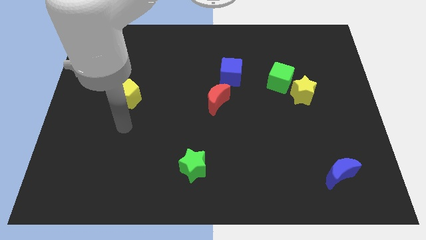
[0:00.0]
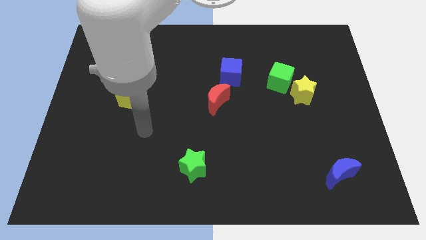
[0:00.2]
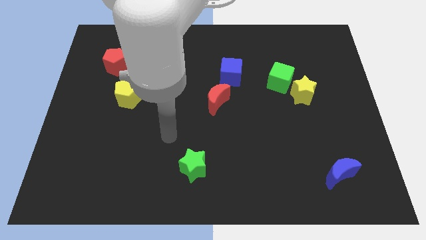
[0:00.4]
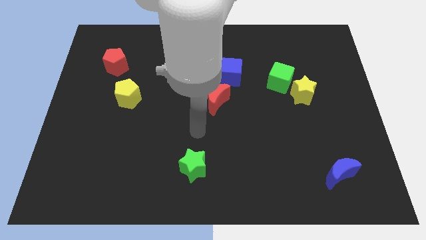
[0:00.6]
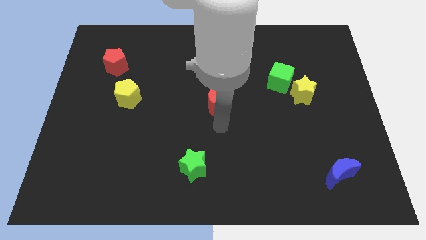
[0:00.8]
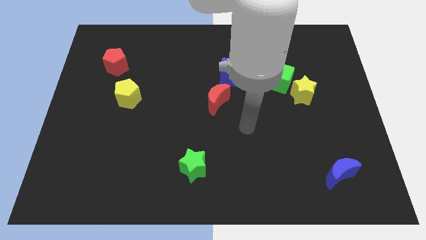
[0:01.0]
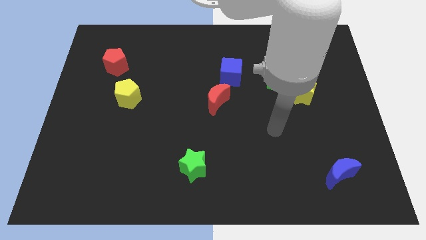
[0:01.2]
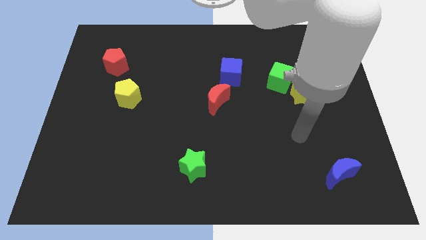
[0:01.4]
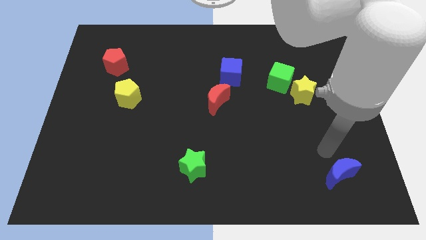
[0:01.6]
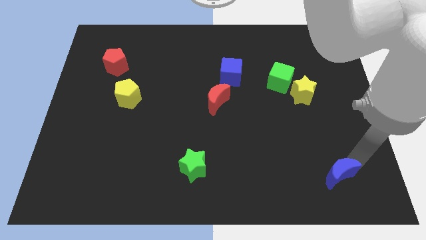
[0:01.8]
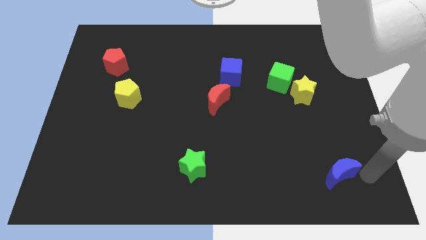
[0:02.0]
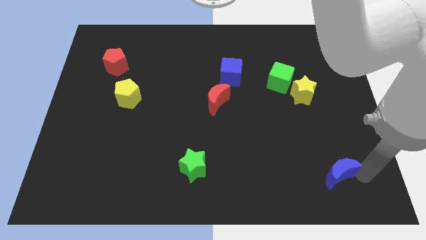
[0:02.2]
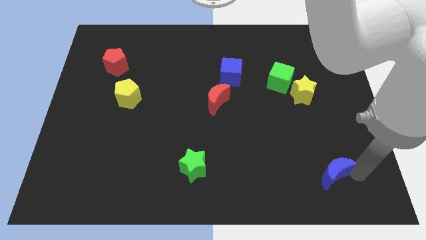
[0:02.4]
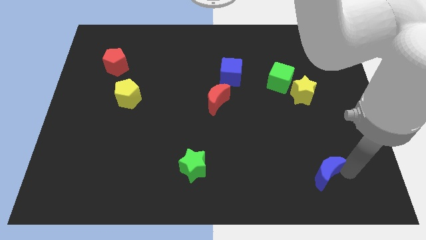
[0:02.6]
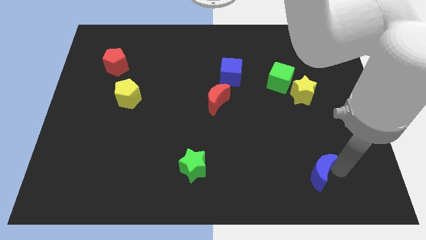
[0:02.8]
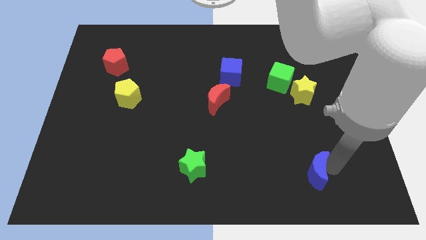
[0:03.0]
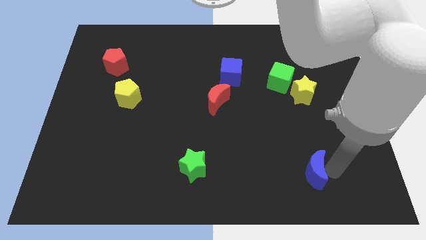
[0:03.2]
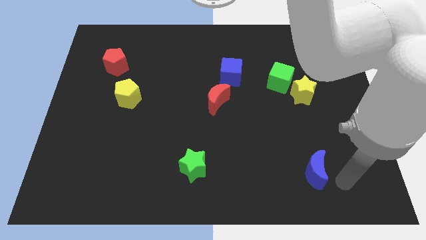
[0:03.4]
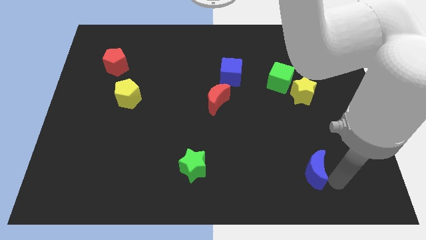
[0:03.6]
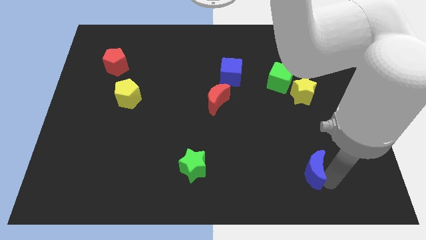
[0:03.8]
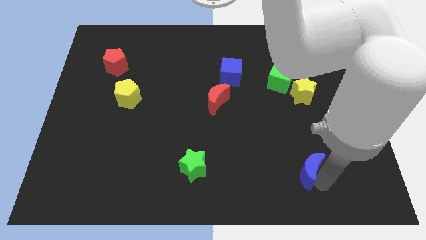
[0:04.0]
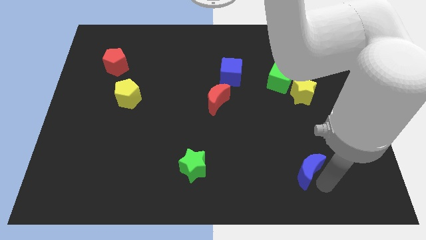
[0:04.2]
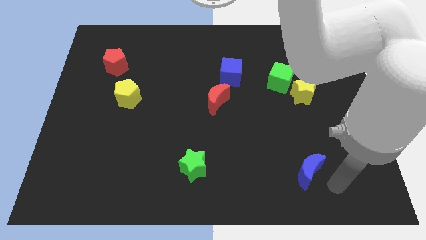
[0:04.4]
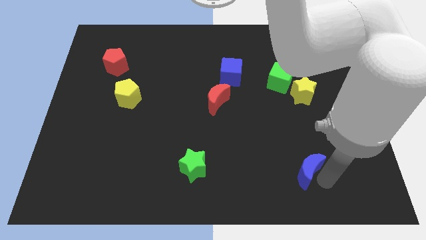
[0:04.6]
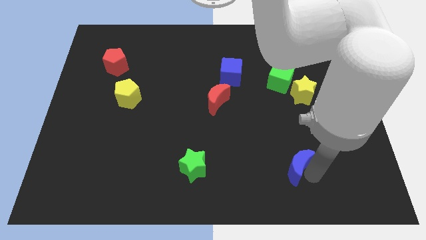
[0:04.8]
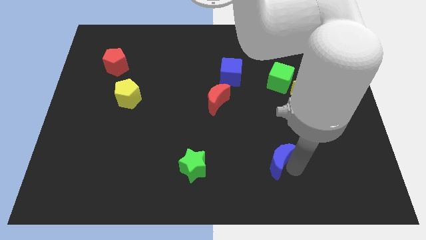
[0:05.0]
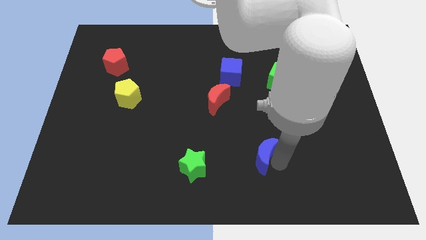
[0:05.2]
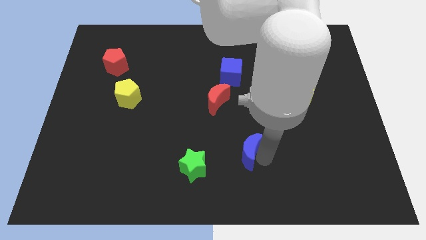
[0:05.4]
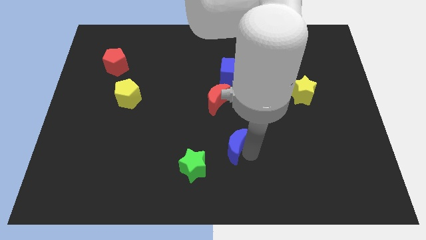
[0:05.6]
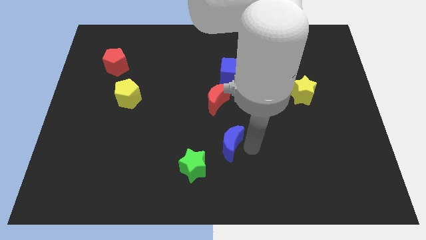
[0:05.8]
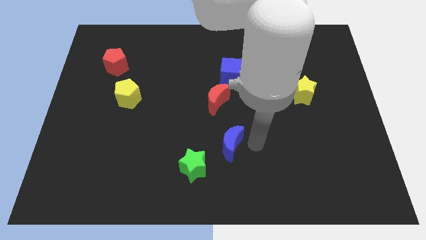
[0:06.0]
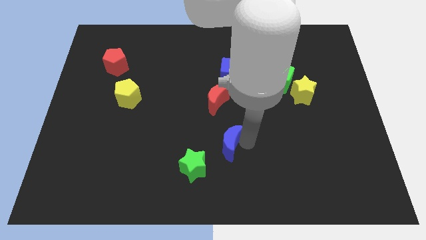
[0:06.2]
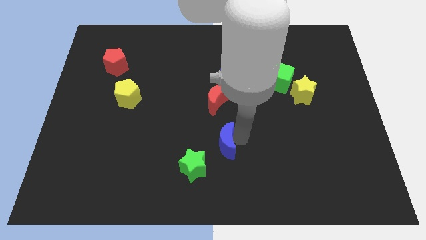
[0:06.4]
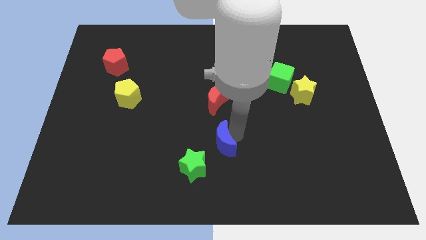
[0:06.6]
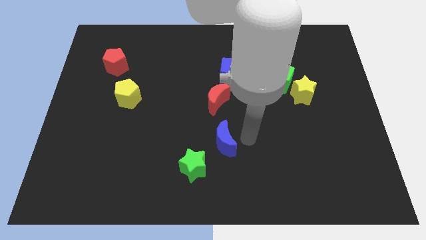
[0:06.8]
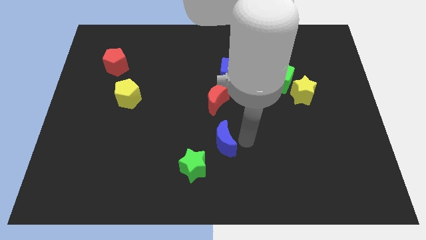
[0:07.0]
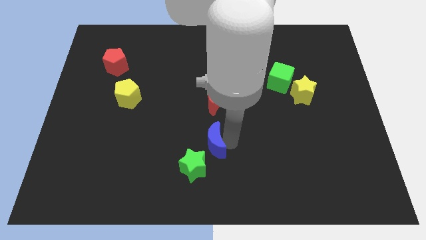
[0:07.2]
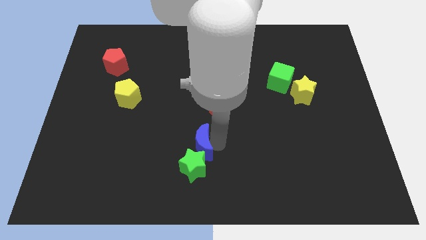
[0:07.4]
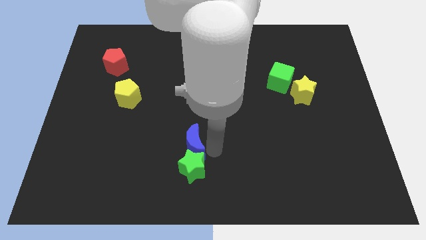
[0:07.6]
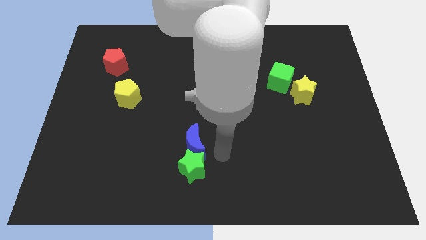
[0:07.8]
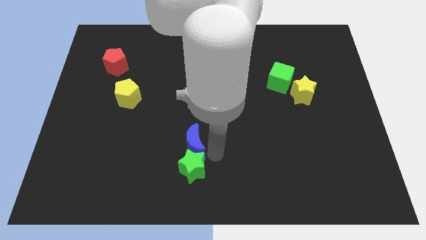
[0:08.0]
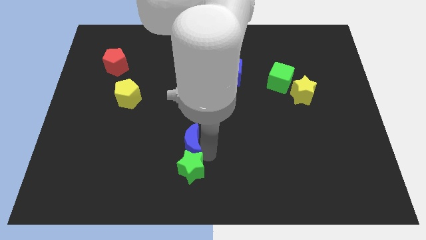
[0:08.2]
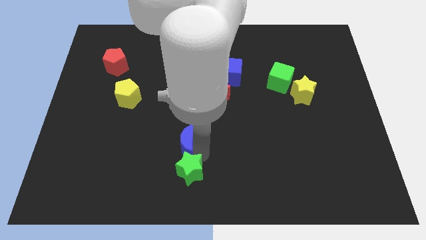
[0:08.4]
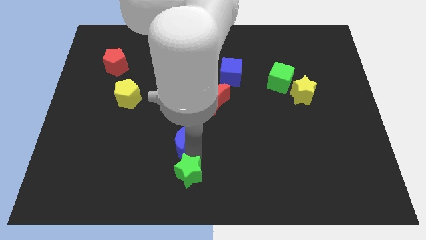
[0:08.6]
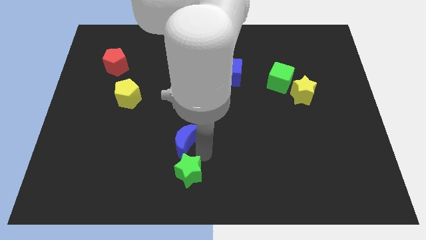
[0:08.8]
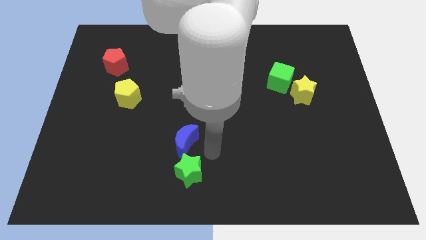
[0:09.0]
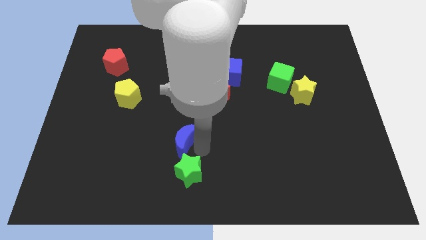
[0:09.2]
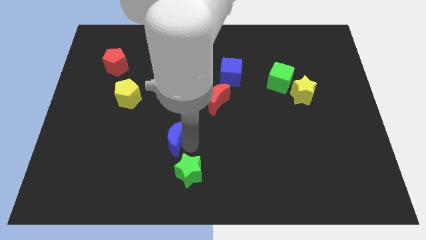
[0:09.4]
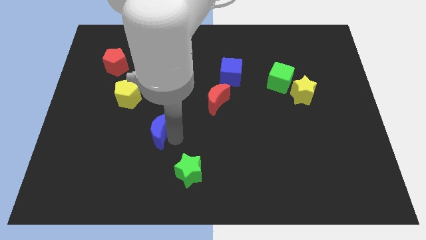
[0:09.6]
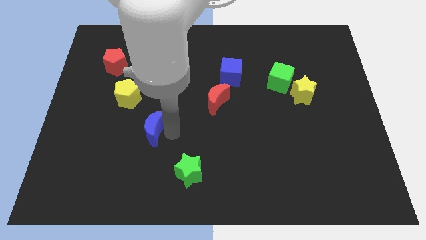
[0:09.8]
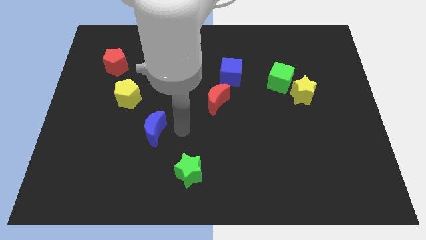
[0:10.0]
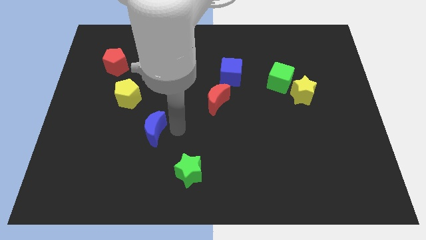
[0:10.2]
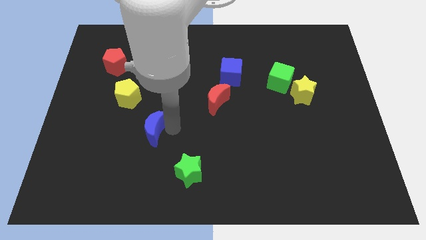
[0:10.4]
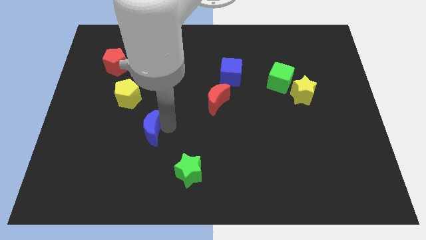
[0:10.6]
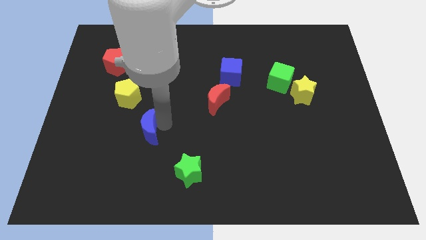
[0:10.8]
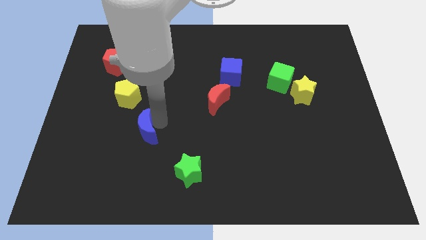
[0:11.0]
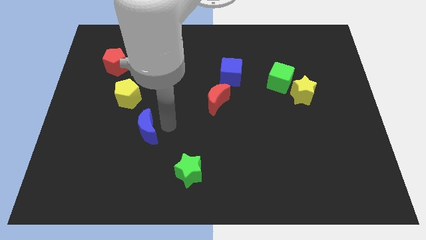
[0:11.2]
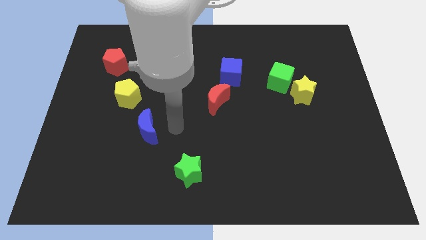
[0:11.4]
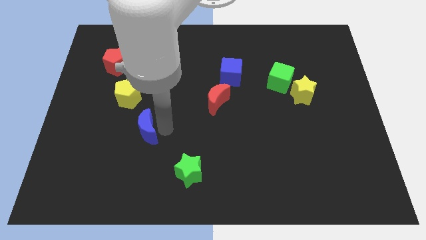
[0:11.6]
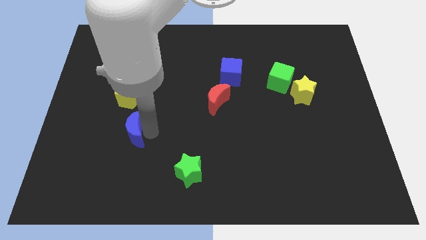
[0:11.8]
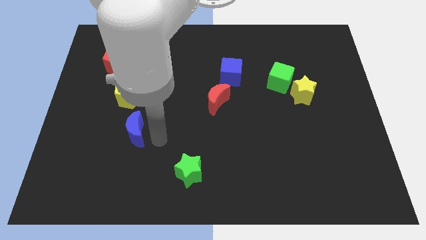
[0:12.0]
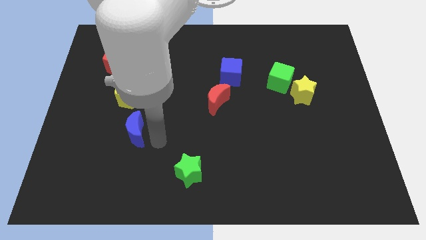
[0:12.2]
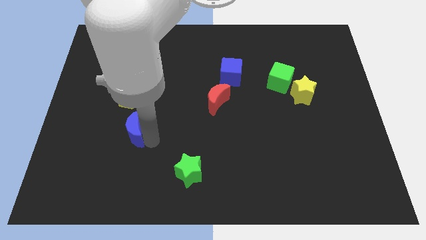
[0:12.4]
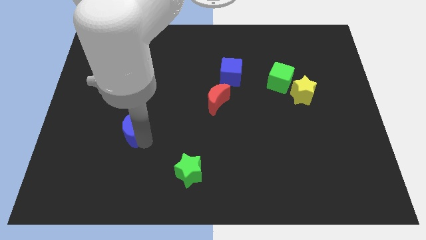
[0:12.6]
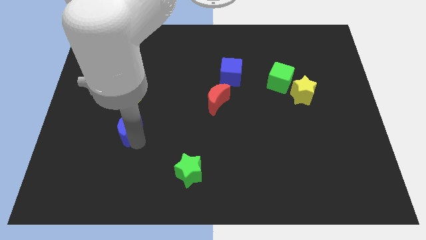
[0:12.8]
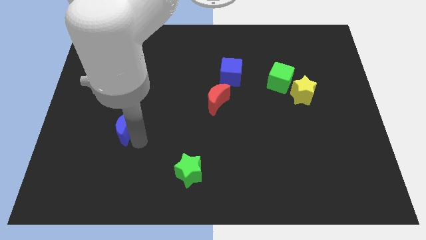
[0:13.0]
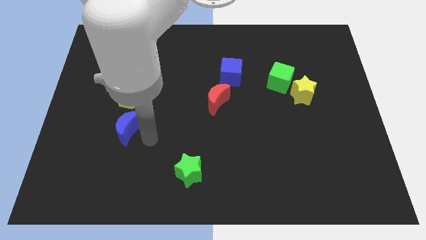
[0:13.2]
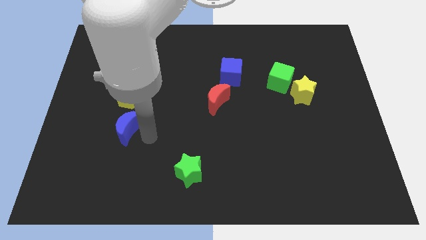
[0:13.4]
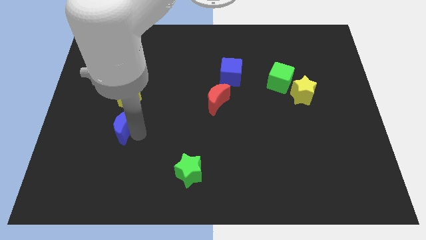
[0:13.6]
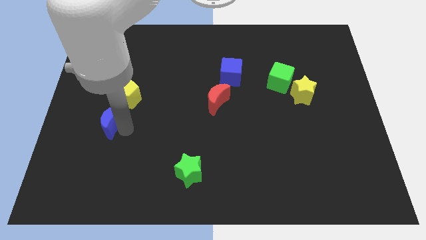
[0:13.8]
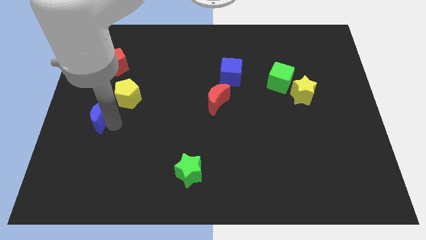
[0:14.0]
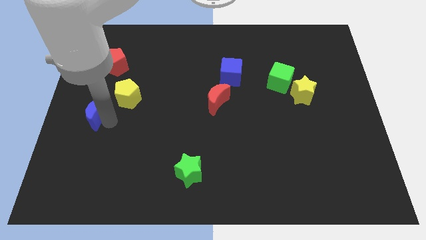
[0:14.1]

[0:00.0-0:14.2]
push the blue moon to the left side
